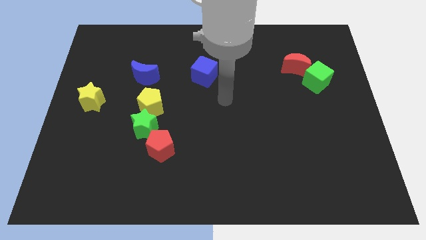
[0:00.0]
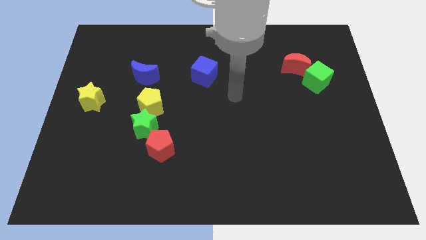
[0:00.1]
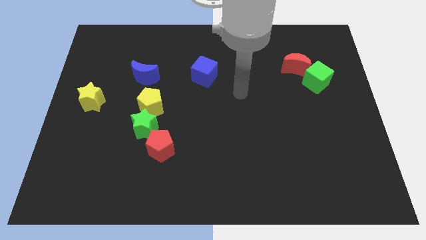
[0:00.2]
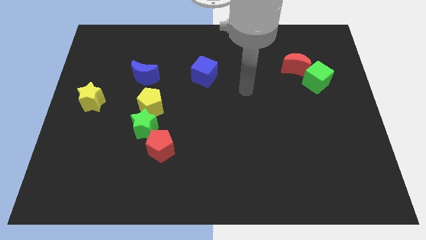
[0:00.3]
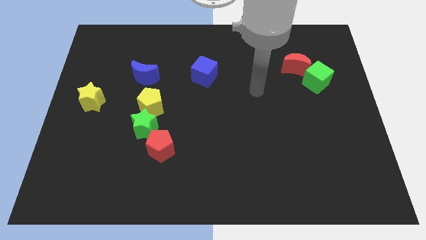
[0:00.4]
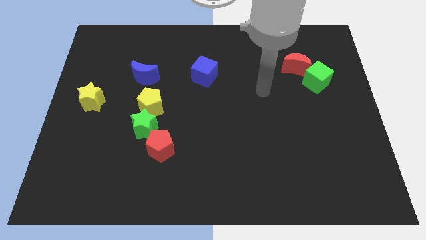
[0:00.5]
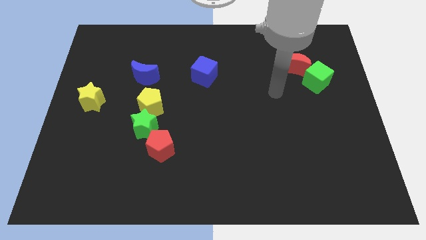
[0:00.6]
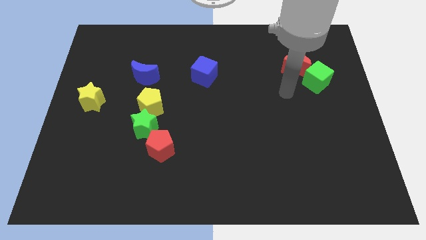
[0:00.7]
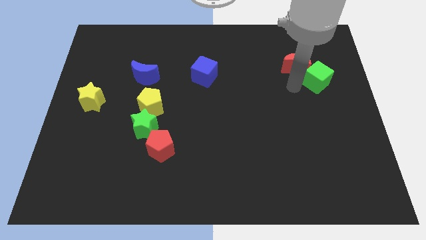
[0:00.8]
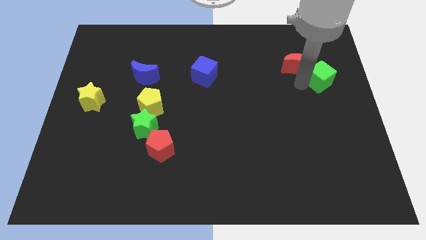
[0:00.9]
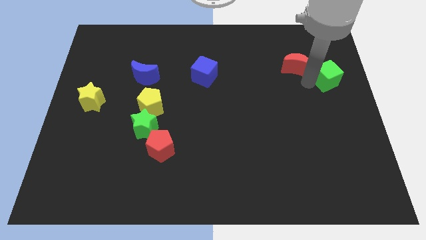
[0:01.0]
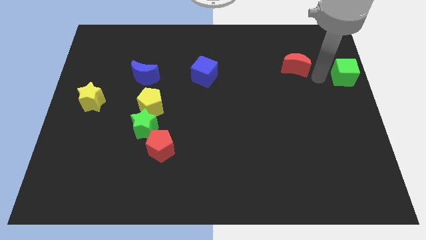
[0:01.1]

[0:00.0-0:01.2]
pull the red moon apart from the green cube

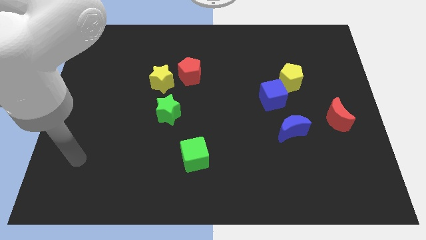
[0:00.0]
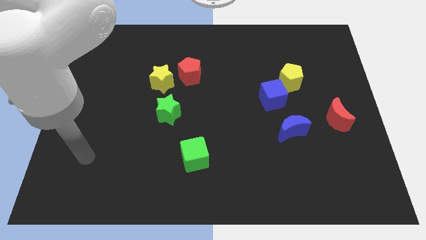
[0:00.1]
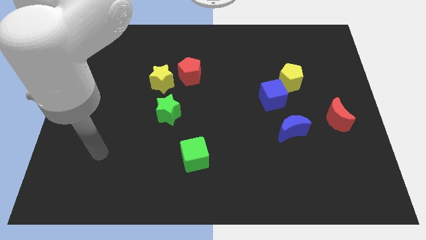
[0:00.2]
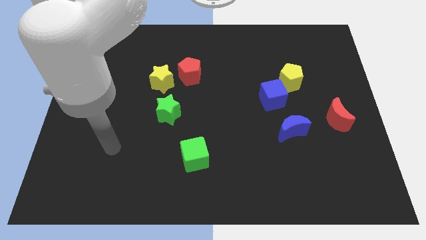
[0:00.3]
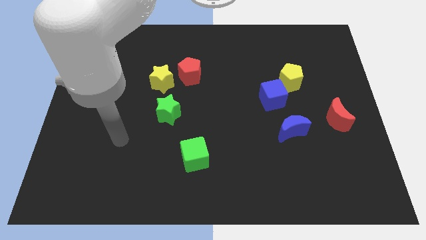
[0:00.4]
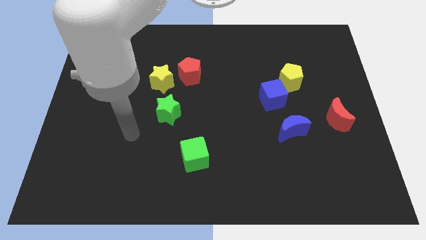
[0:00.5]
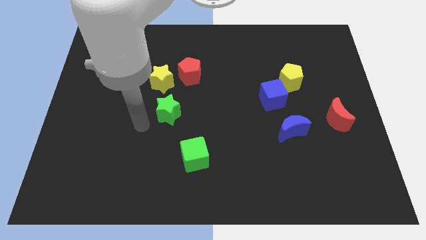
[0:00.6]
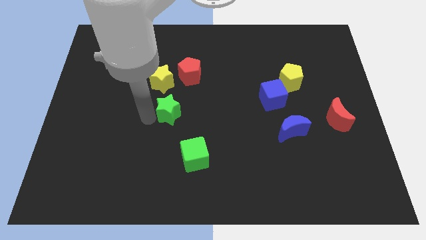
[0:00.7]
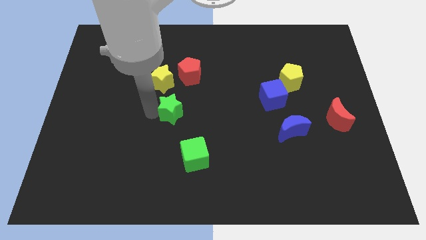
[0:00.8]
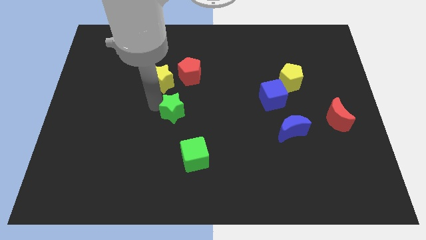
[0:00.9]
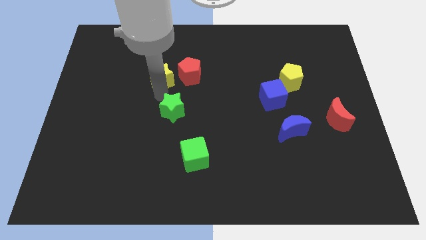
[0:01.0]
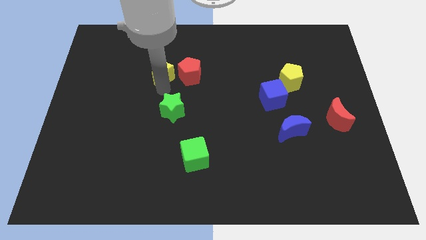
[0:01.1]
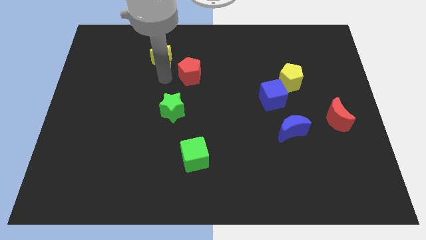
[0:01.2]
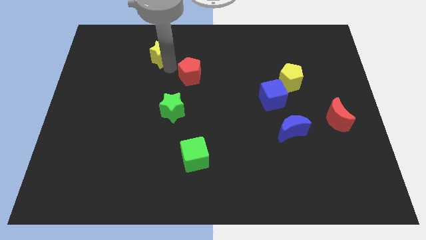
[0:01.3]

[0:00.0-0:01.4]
pull the red pentagon apart from the yellow star

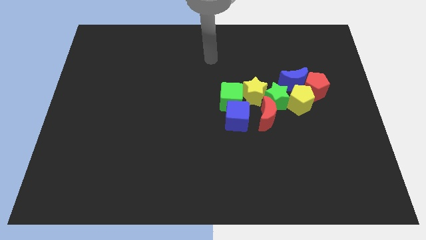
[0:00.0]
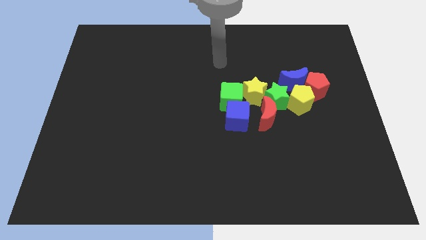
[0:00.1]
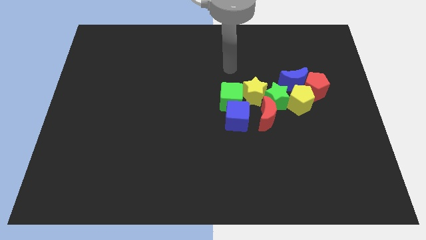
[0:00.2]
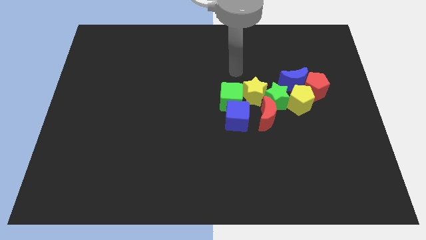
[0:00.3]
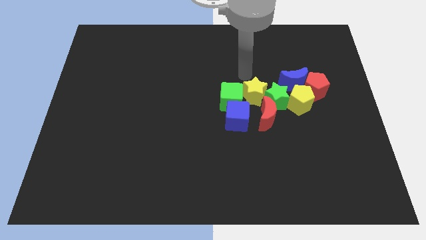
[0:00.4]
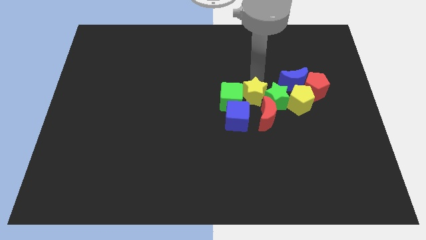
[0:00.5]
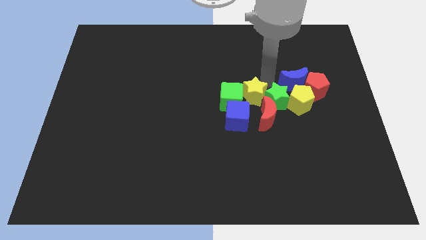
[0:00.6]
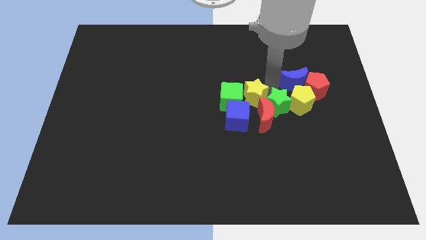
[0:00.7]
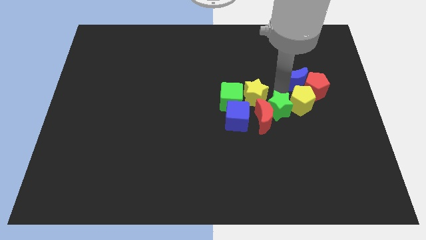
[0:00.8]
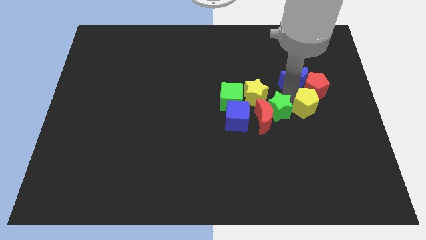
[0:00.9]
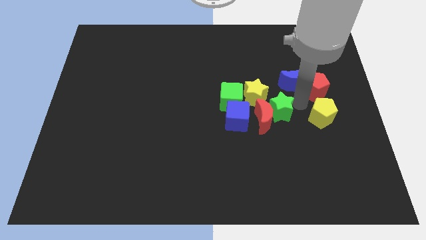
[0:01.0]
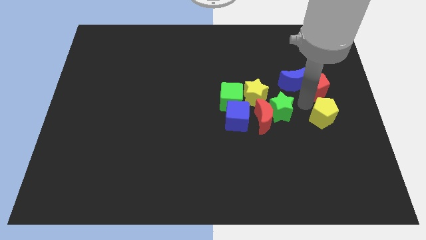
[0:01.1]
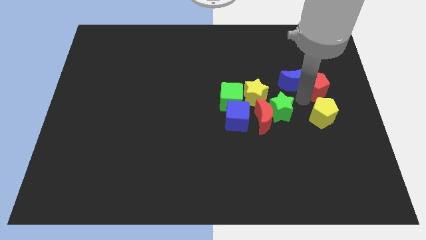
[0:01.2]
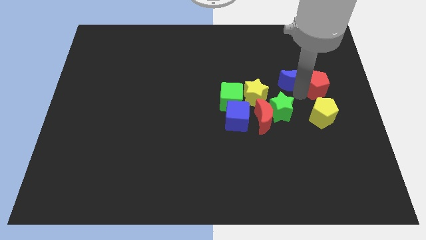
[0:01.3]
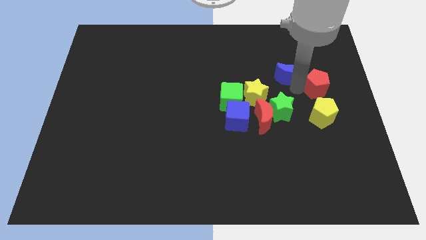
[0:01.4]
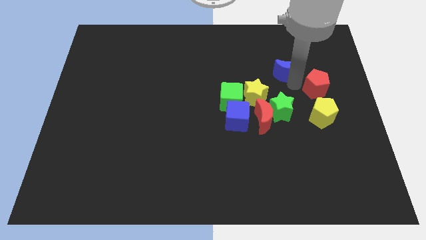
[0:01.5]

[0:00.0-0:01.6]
pull the blue moon apart from the red pentagon, yellow pentagon, and green star

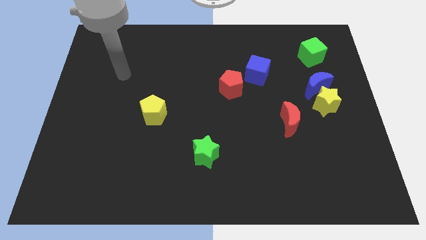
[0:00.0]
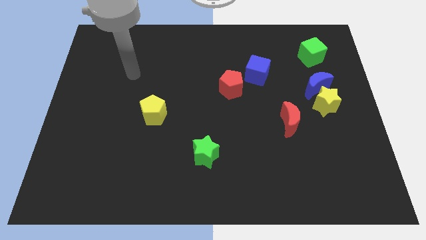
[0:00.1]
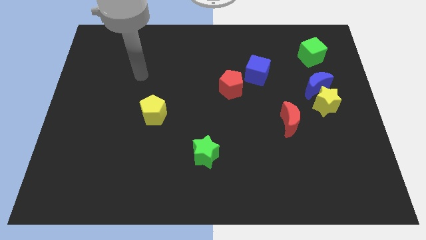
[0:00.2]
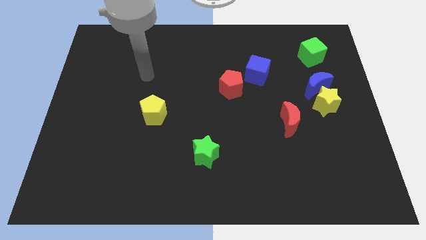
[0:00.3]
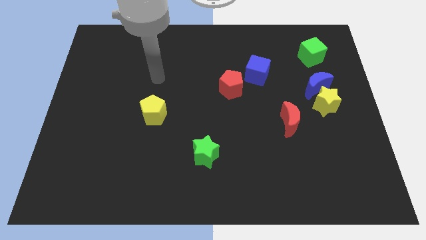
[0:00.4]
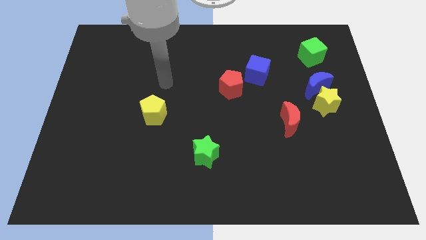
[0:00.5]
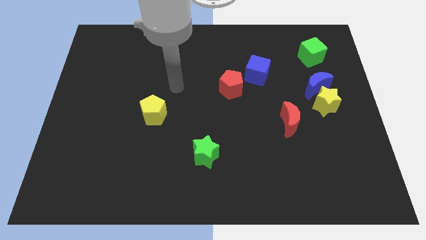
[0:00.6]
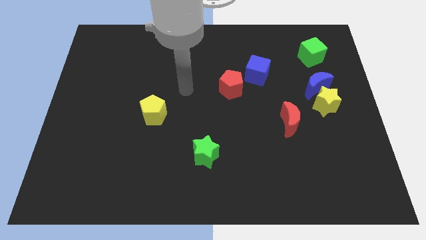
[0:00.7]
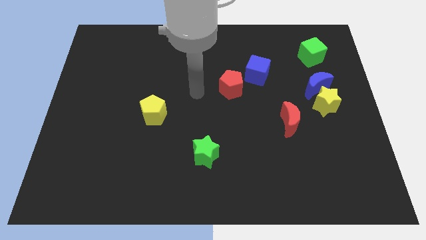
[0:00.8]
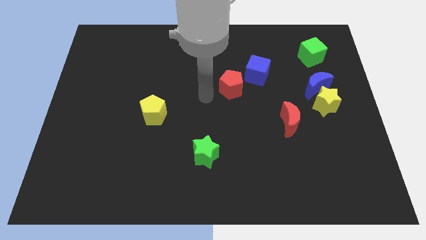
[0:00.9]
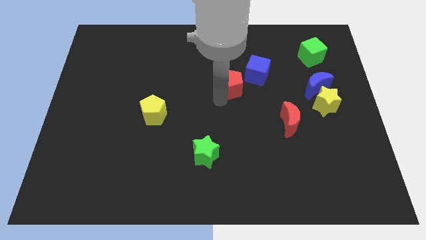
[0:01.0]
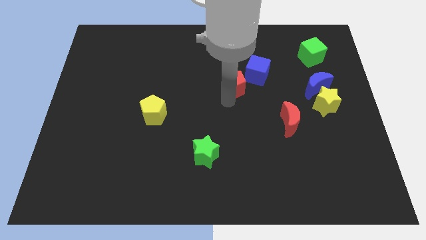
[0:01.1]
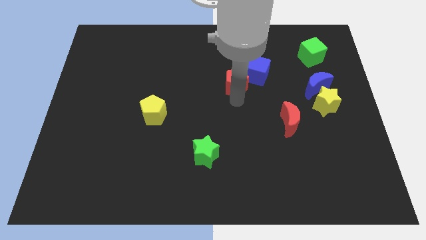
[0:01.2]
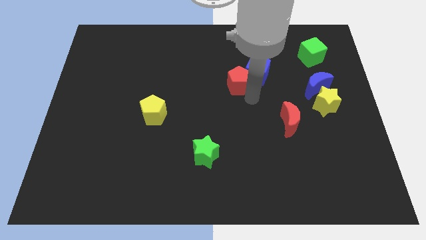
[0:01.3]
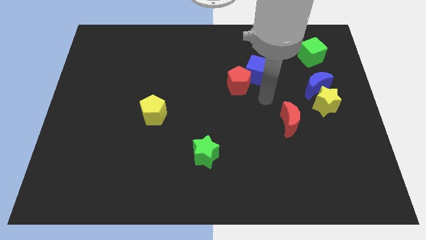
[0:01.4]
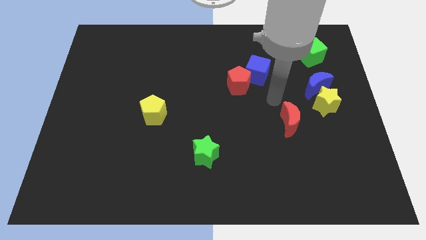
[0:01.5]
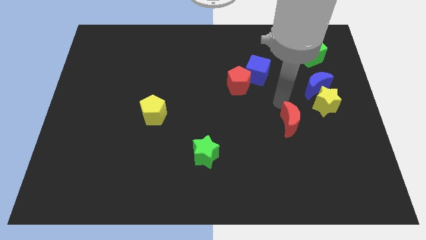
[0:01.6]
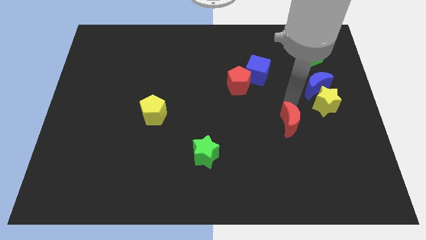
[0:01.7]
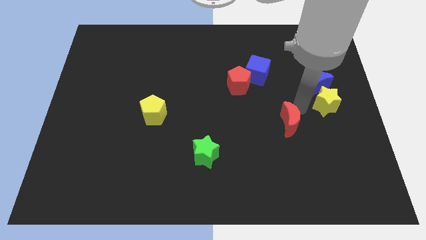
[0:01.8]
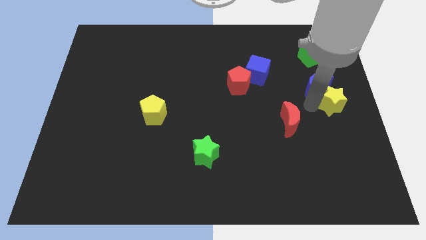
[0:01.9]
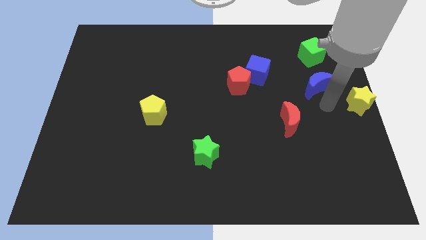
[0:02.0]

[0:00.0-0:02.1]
pull the blue moon apart from the yellow star

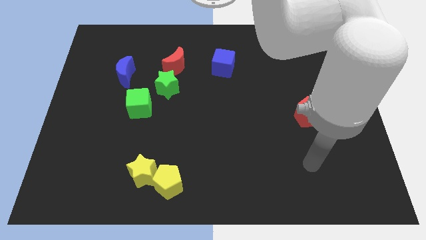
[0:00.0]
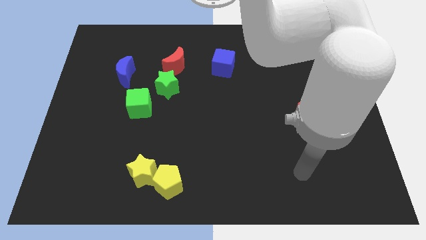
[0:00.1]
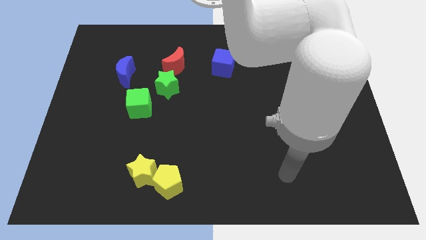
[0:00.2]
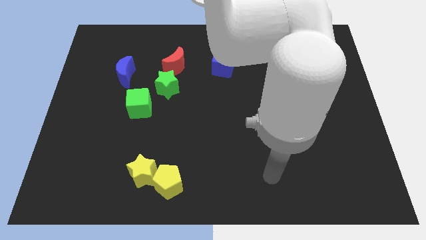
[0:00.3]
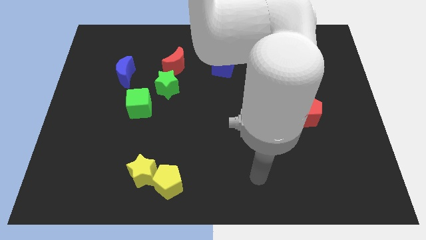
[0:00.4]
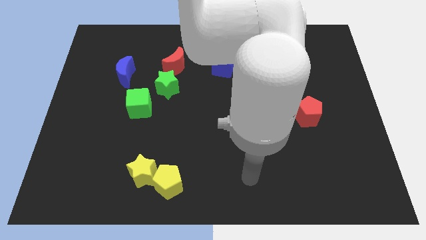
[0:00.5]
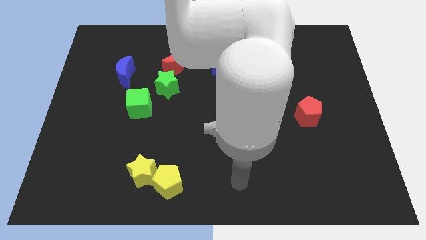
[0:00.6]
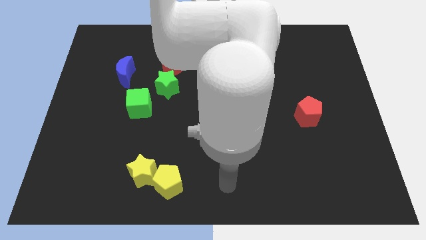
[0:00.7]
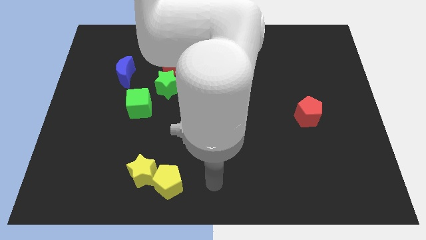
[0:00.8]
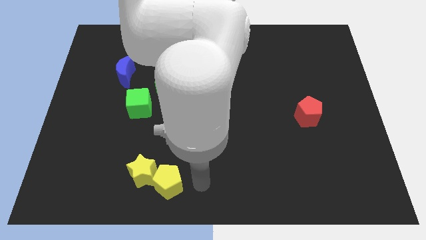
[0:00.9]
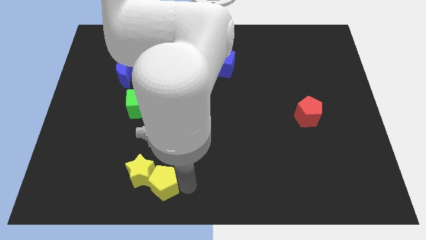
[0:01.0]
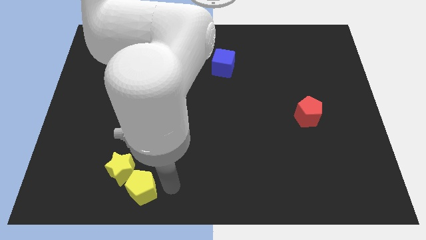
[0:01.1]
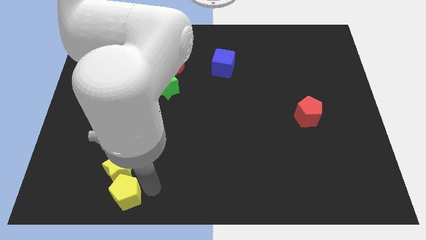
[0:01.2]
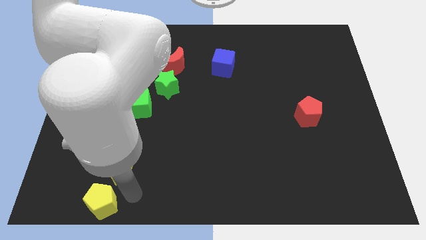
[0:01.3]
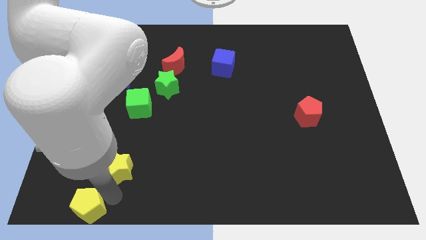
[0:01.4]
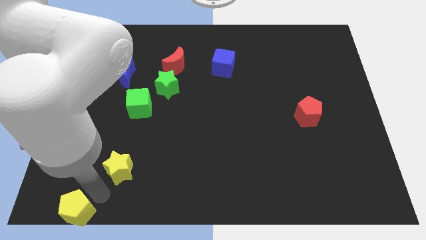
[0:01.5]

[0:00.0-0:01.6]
separate the yellow star from the yellow pentagon

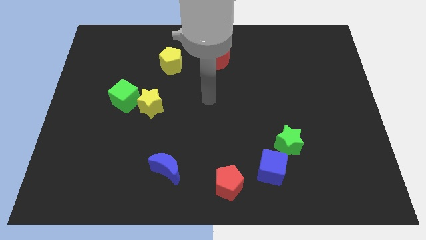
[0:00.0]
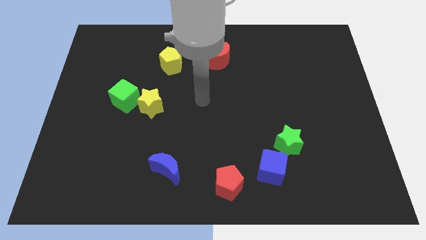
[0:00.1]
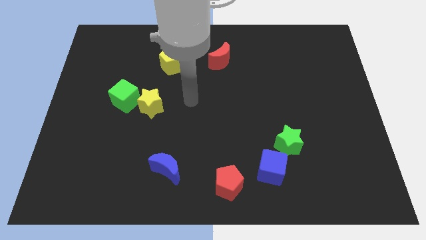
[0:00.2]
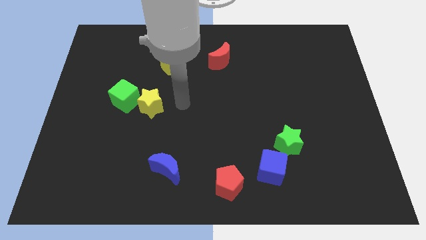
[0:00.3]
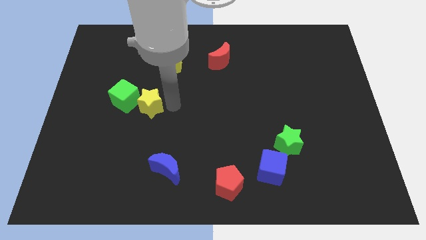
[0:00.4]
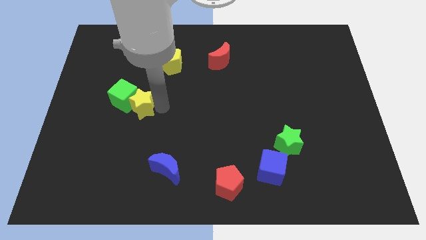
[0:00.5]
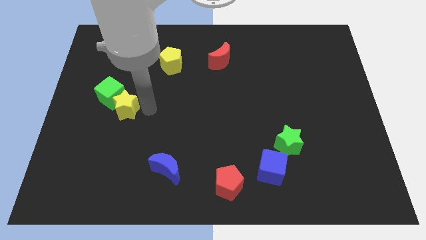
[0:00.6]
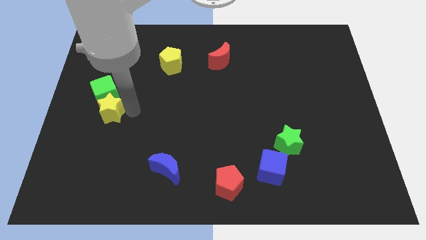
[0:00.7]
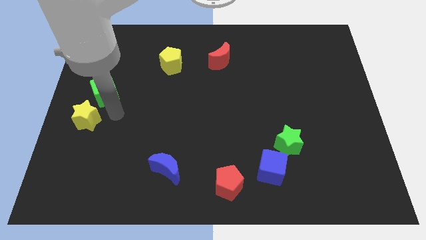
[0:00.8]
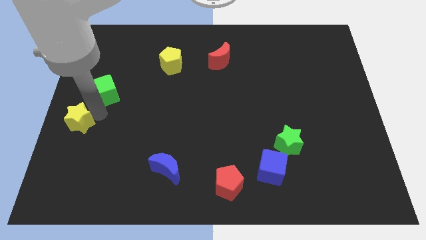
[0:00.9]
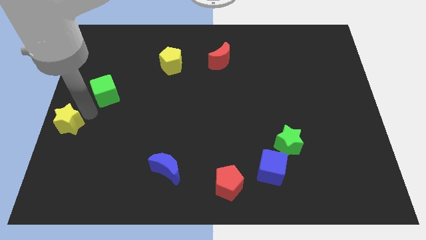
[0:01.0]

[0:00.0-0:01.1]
separate the green cube from the yellow star

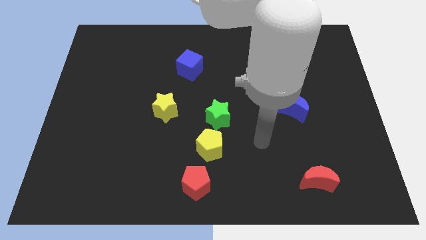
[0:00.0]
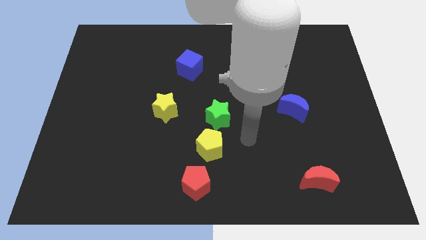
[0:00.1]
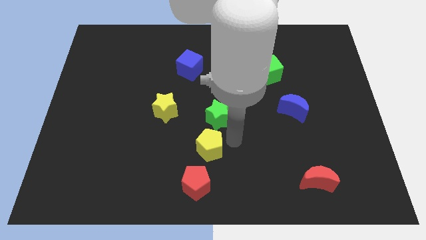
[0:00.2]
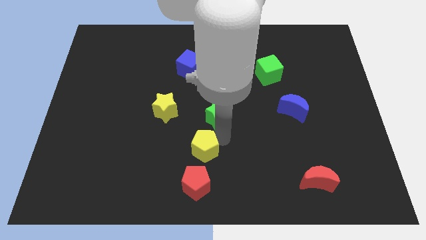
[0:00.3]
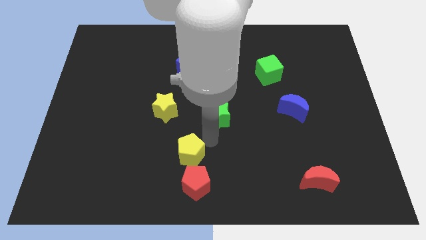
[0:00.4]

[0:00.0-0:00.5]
move the green star away from the yellow pentagon
